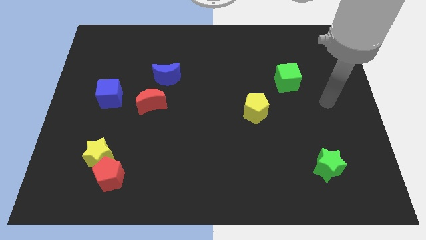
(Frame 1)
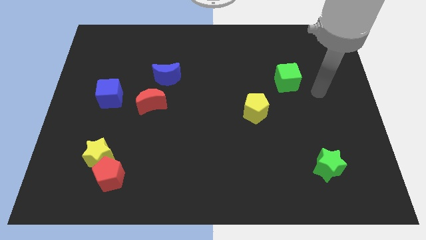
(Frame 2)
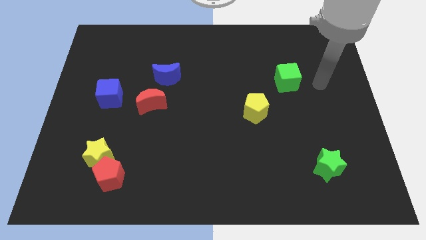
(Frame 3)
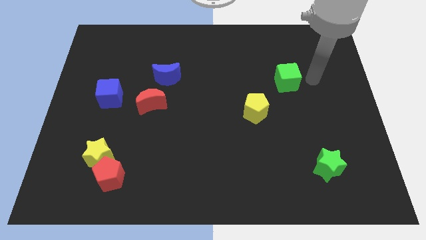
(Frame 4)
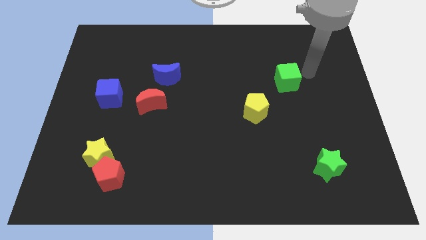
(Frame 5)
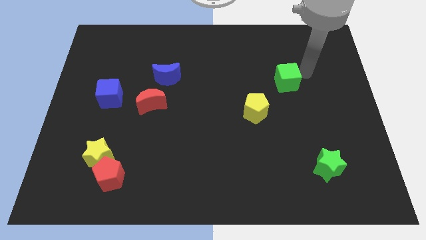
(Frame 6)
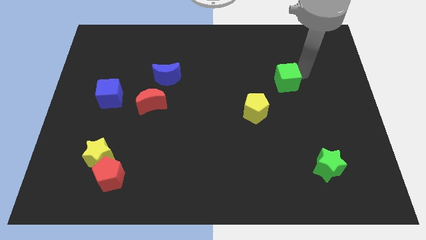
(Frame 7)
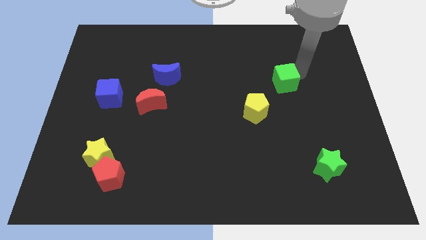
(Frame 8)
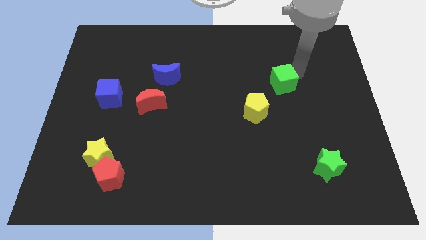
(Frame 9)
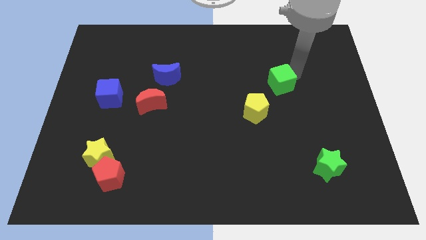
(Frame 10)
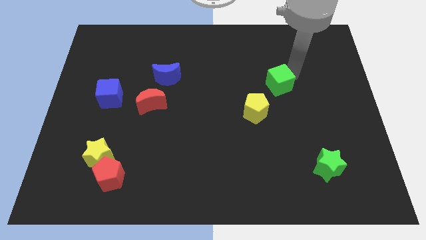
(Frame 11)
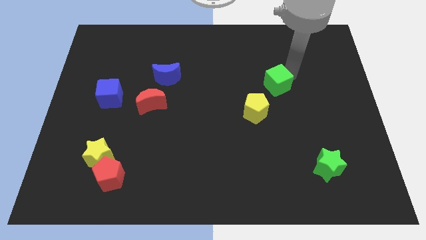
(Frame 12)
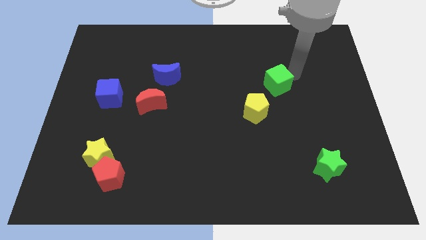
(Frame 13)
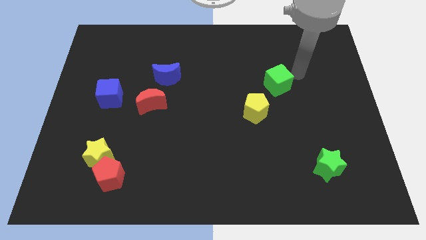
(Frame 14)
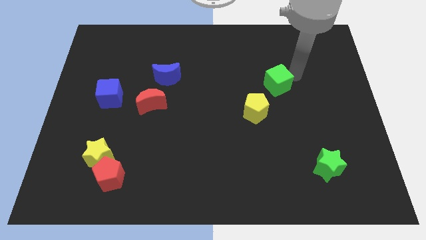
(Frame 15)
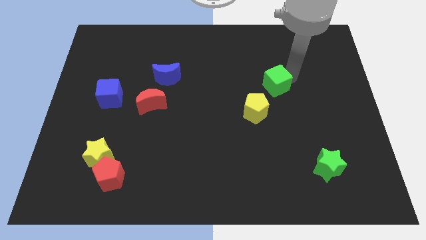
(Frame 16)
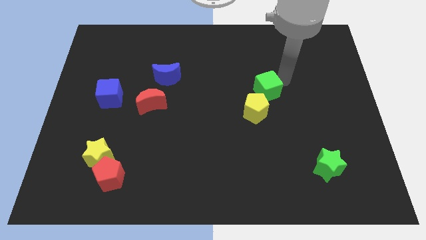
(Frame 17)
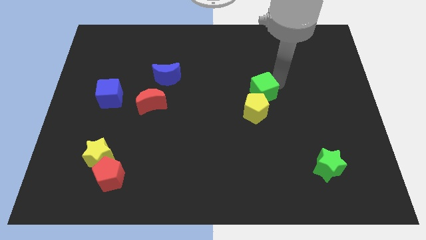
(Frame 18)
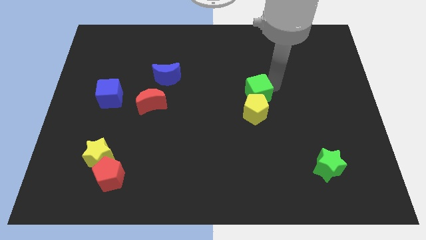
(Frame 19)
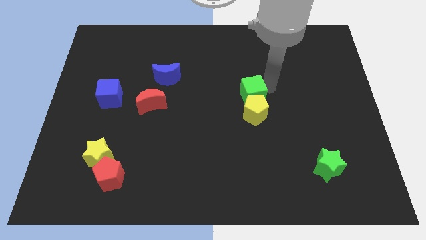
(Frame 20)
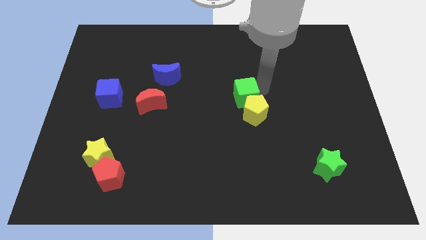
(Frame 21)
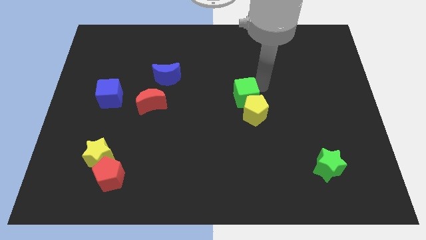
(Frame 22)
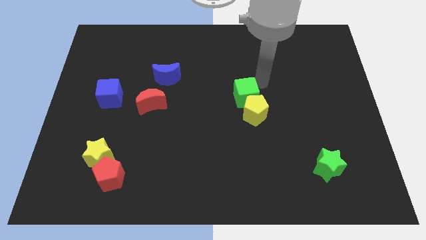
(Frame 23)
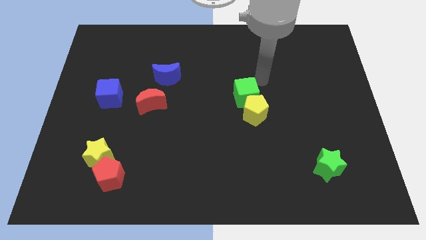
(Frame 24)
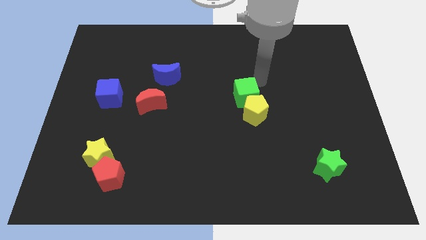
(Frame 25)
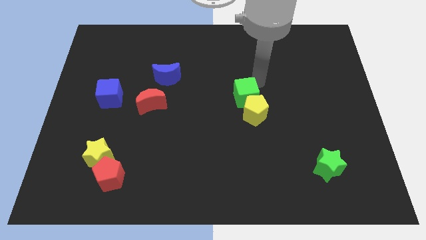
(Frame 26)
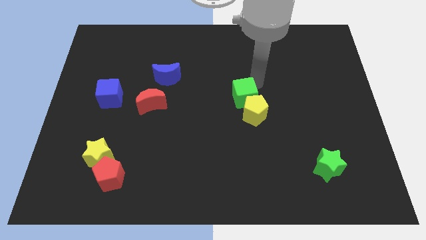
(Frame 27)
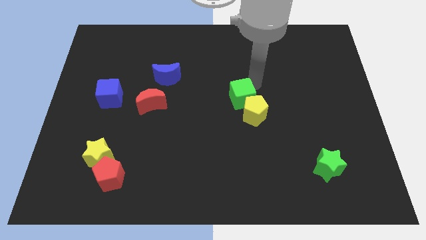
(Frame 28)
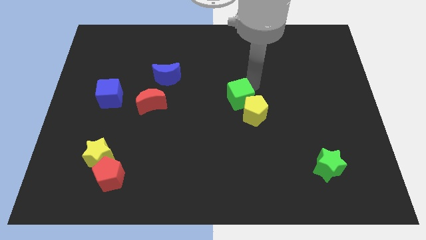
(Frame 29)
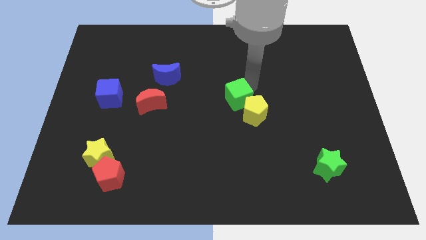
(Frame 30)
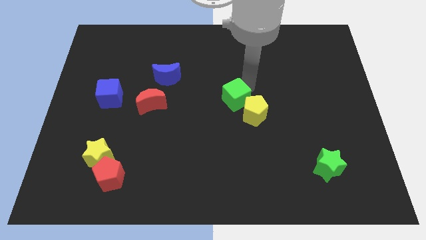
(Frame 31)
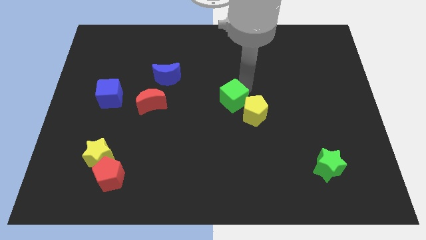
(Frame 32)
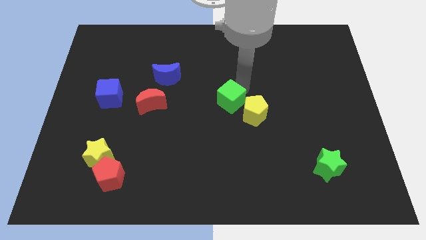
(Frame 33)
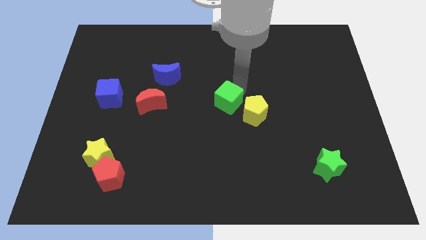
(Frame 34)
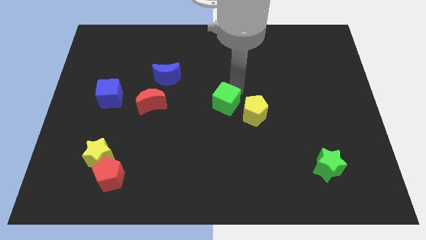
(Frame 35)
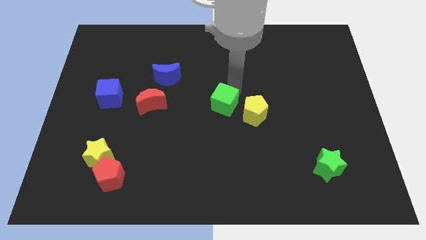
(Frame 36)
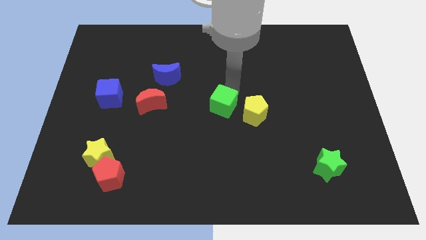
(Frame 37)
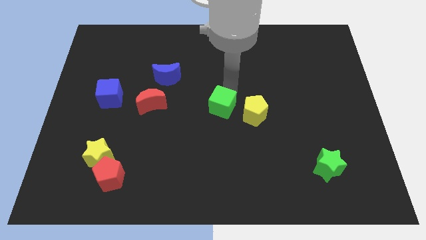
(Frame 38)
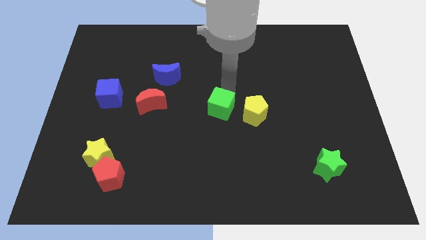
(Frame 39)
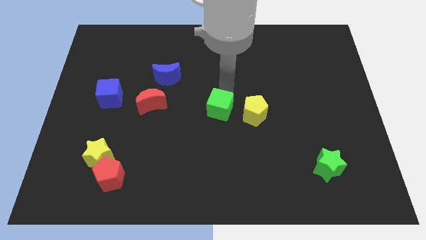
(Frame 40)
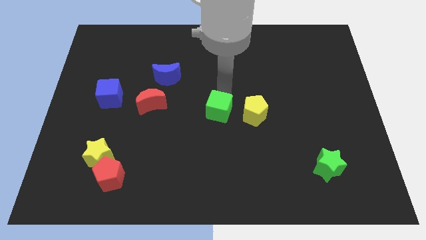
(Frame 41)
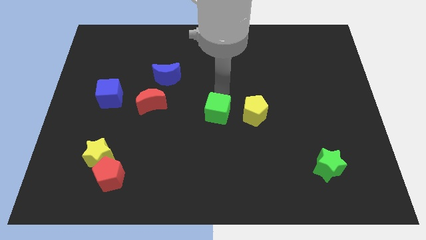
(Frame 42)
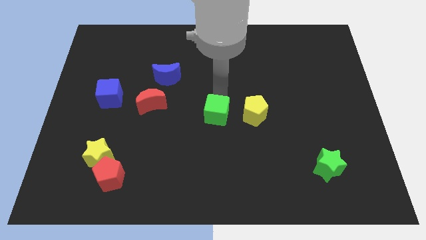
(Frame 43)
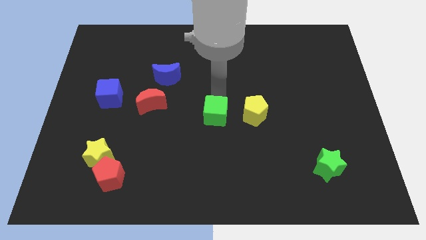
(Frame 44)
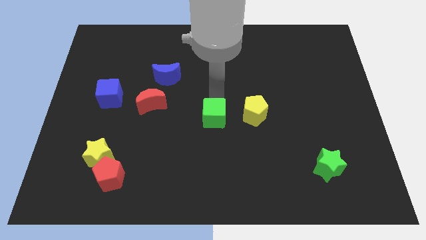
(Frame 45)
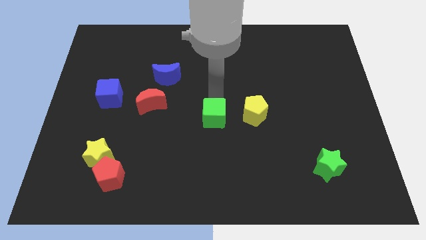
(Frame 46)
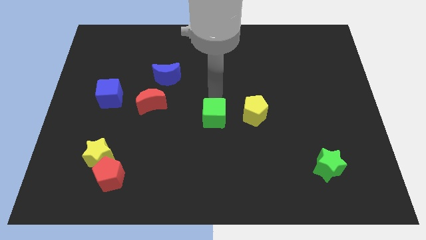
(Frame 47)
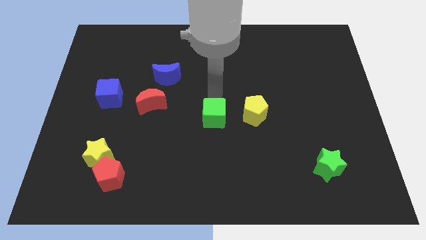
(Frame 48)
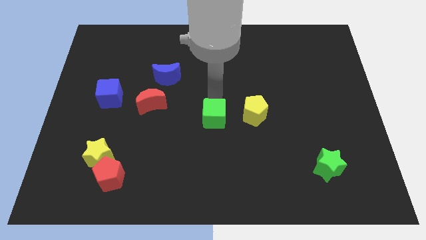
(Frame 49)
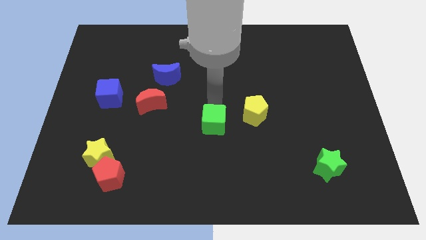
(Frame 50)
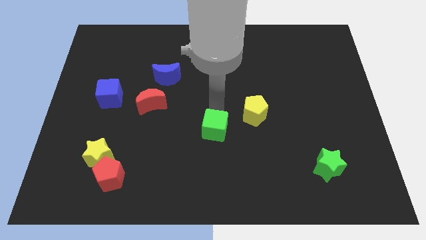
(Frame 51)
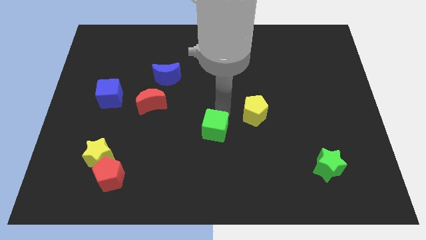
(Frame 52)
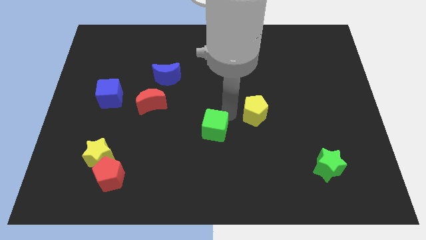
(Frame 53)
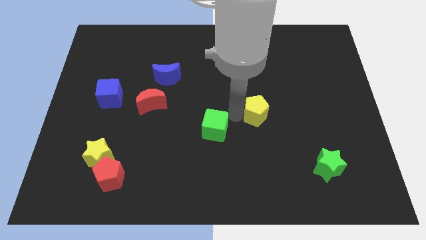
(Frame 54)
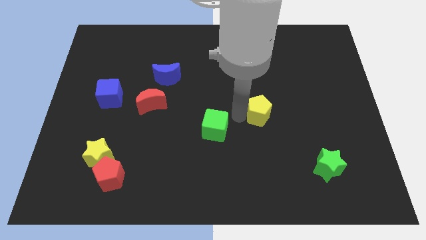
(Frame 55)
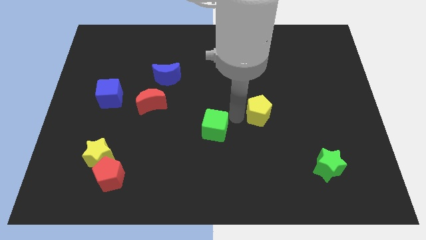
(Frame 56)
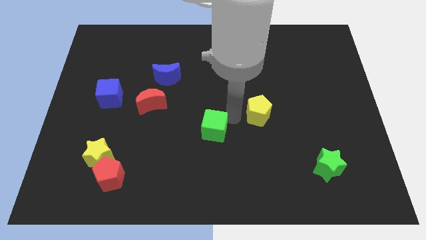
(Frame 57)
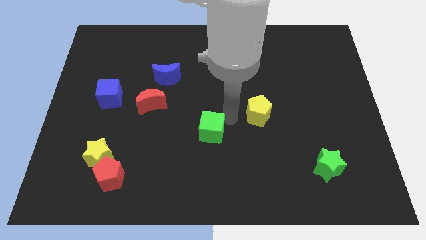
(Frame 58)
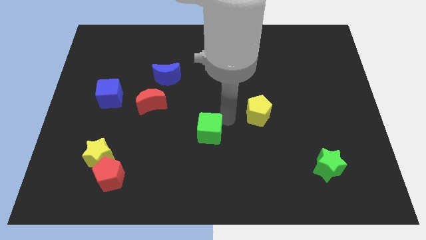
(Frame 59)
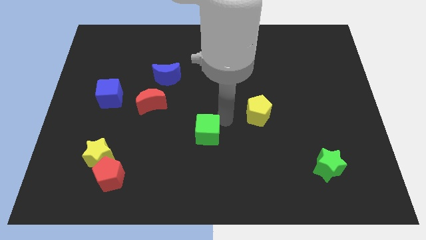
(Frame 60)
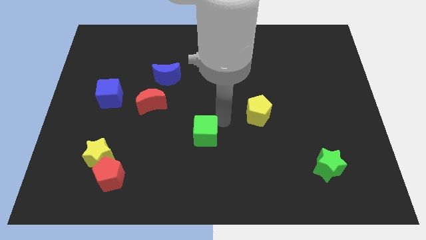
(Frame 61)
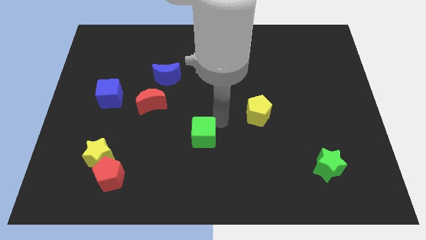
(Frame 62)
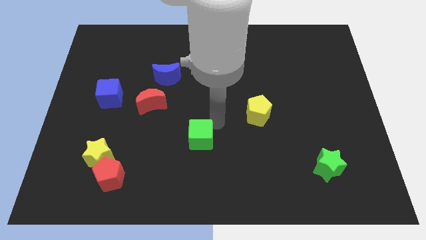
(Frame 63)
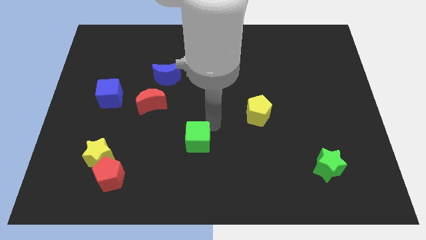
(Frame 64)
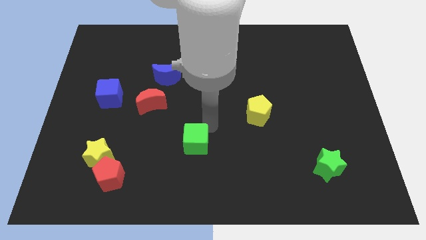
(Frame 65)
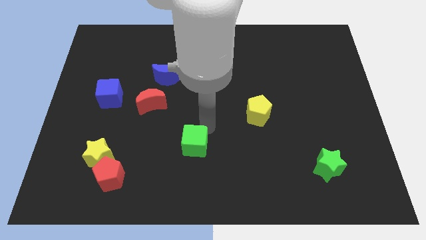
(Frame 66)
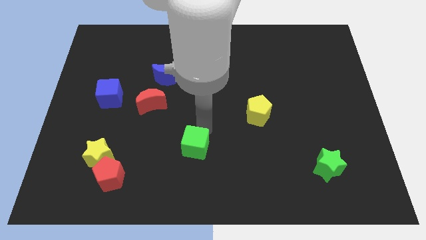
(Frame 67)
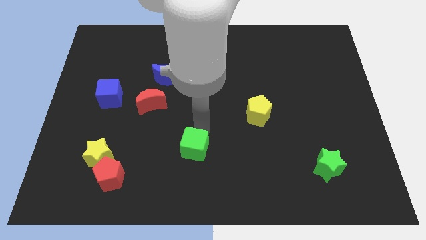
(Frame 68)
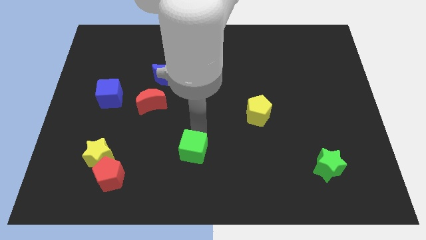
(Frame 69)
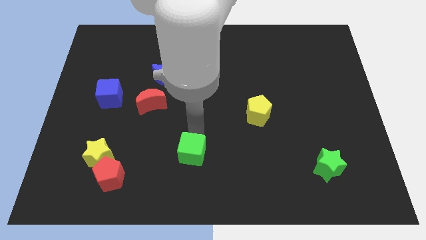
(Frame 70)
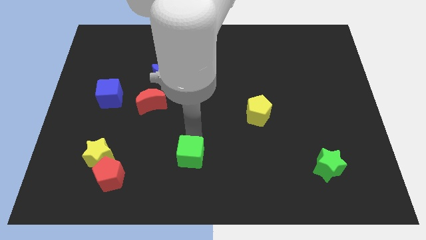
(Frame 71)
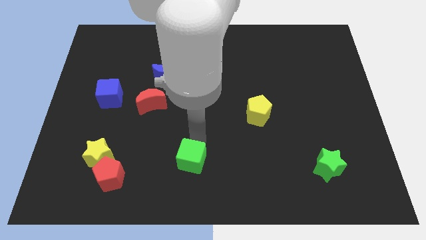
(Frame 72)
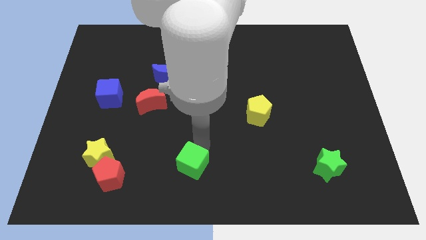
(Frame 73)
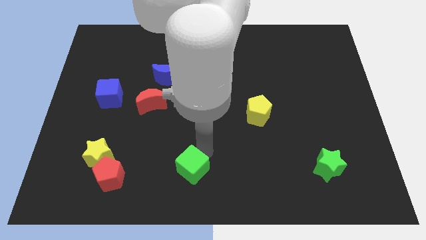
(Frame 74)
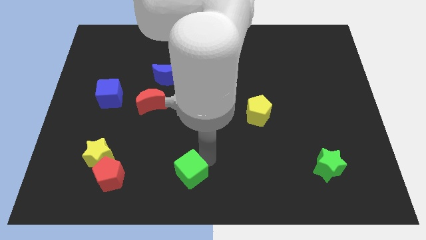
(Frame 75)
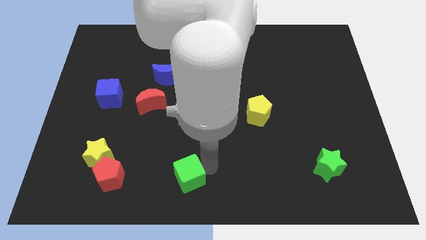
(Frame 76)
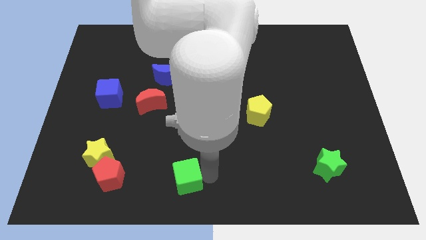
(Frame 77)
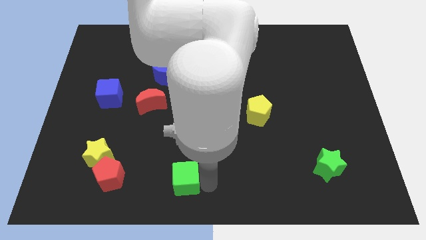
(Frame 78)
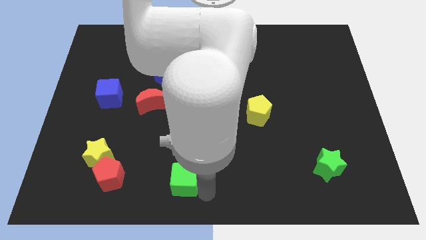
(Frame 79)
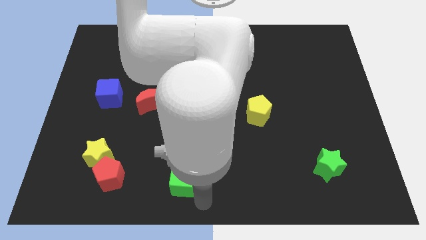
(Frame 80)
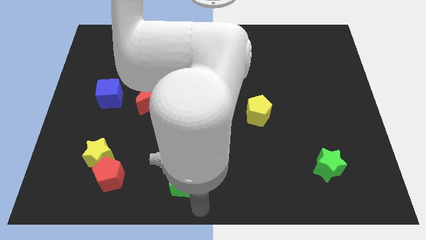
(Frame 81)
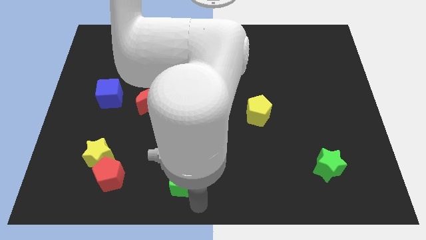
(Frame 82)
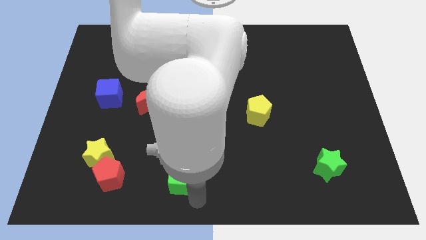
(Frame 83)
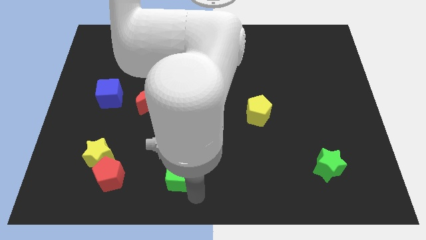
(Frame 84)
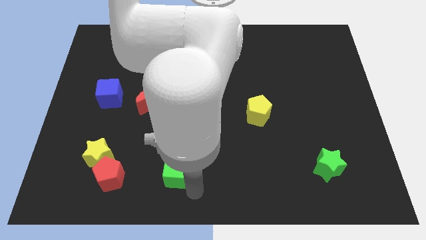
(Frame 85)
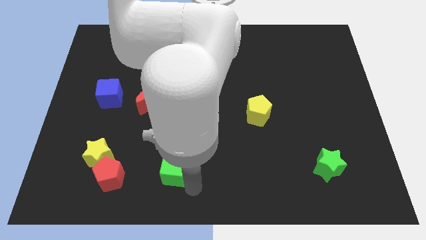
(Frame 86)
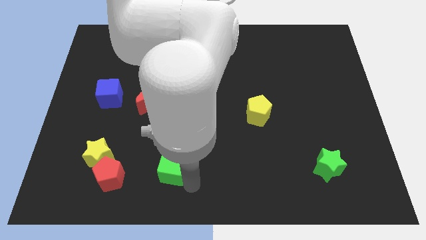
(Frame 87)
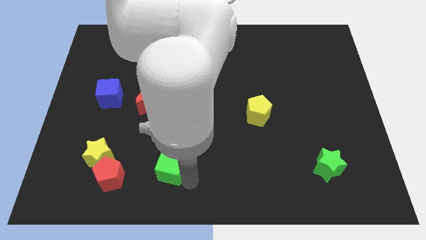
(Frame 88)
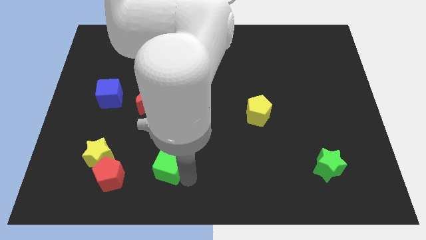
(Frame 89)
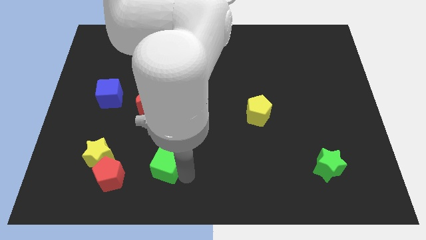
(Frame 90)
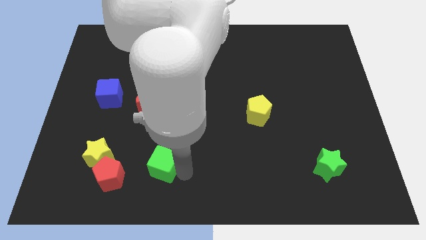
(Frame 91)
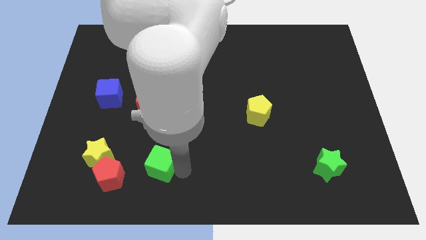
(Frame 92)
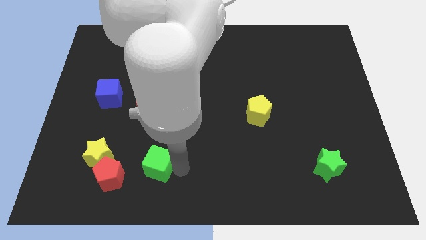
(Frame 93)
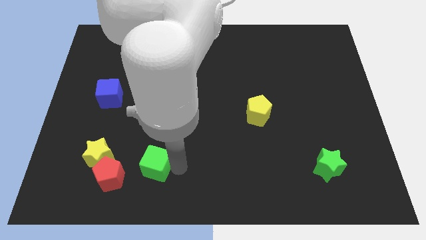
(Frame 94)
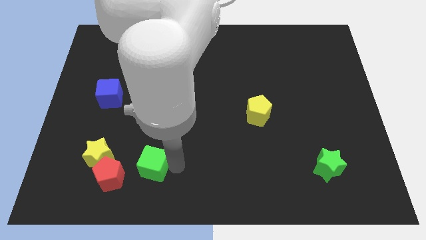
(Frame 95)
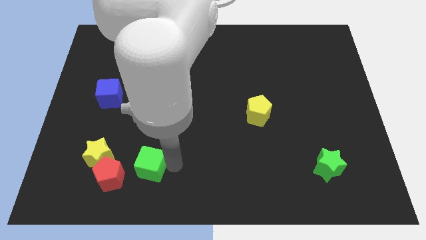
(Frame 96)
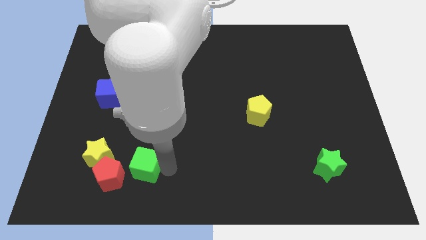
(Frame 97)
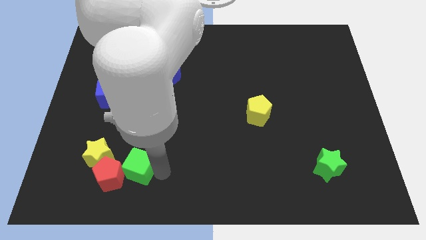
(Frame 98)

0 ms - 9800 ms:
put the green cube close to the red pentagon
